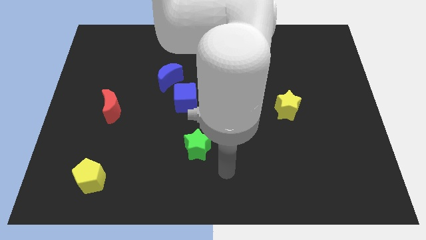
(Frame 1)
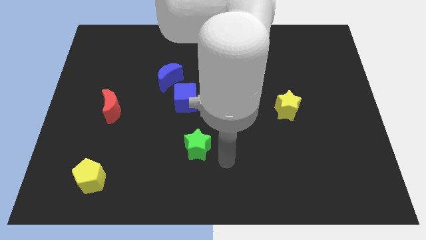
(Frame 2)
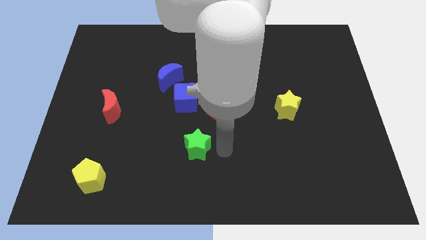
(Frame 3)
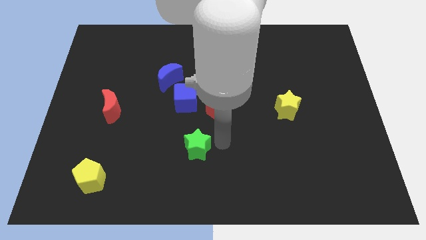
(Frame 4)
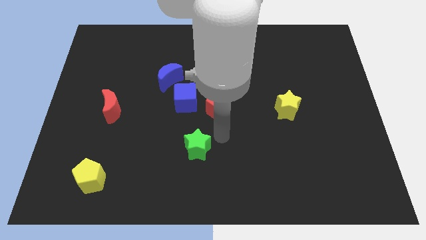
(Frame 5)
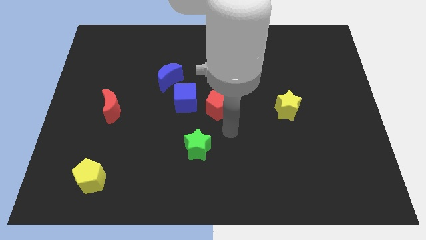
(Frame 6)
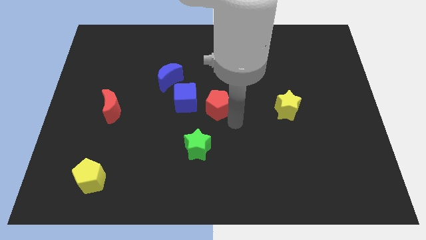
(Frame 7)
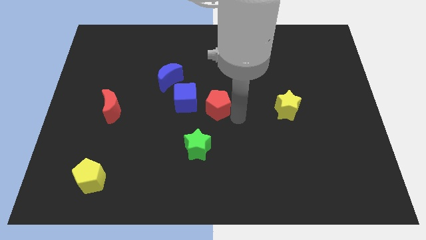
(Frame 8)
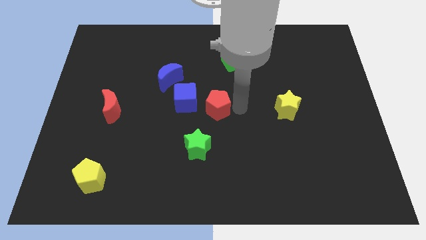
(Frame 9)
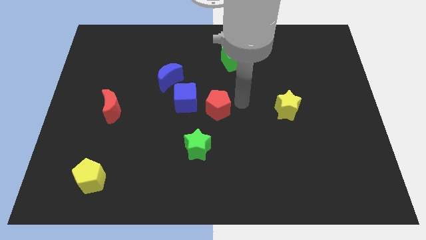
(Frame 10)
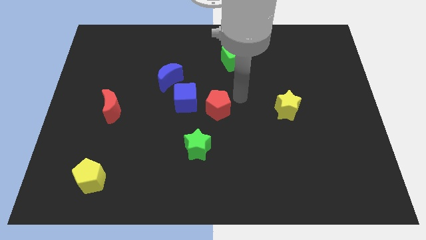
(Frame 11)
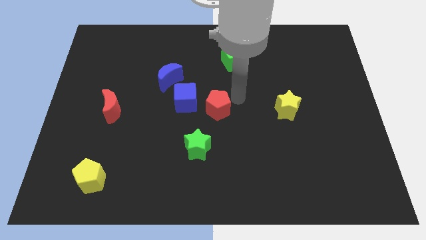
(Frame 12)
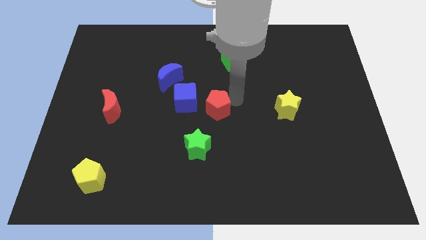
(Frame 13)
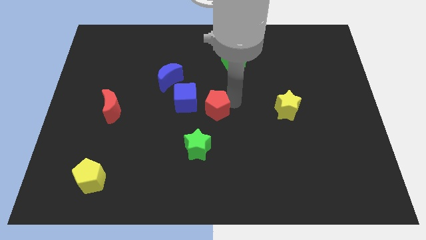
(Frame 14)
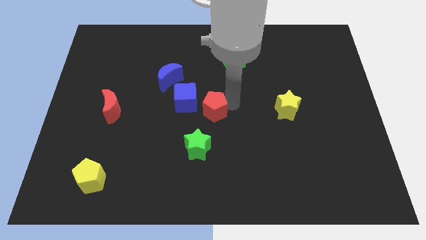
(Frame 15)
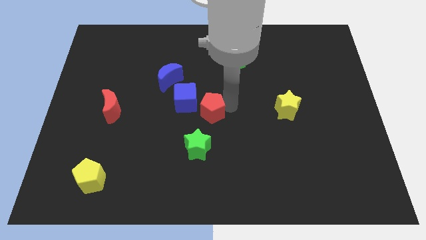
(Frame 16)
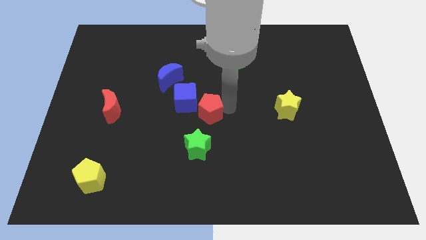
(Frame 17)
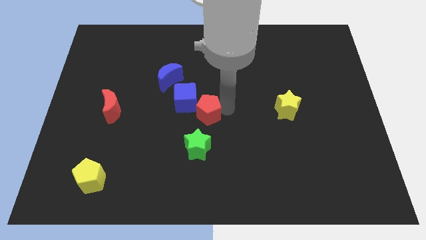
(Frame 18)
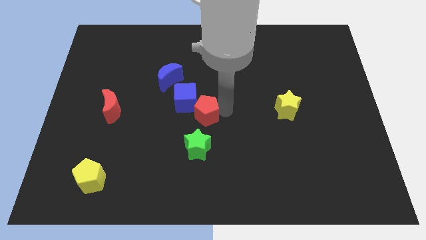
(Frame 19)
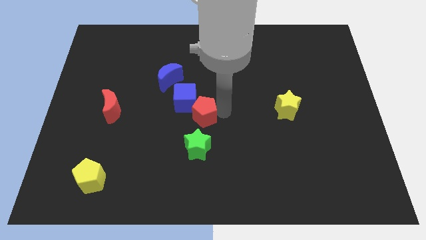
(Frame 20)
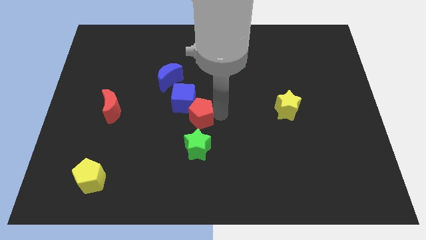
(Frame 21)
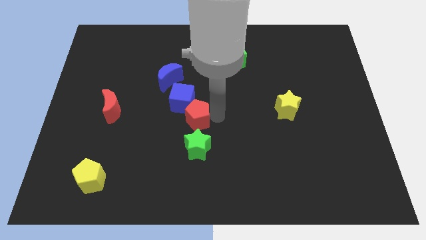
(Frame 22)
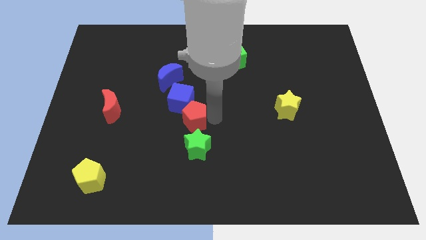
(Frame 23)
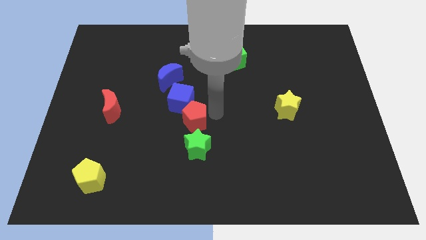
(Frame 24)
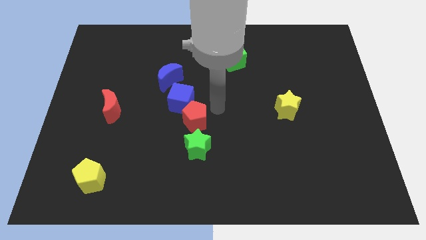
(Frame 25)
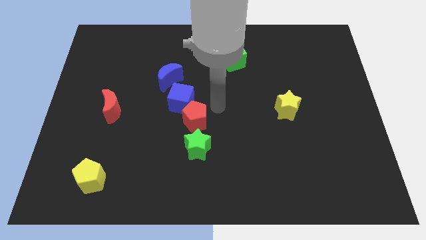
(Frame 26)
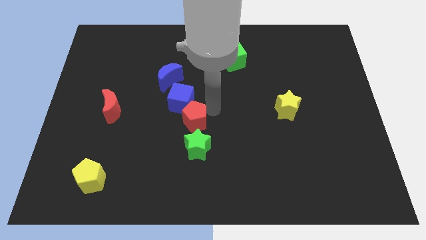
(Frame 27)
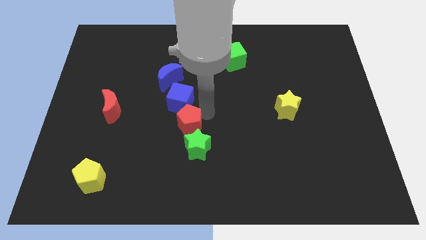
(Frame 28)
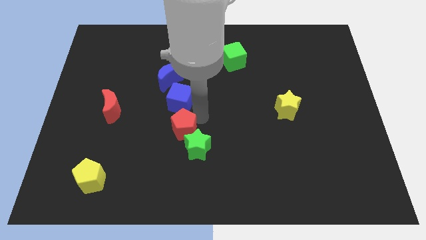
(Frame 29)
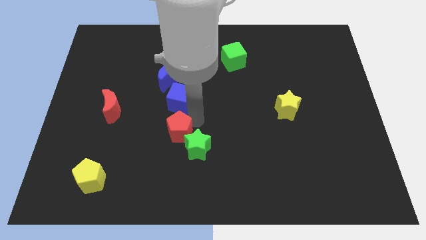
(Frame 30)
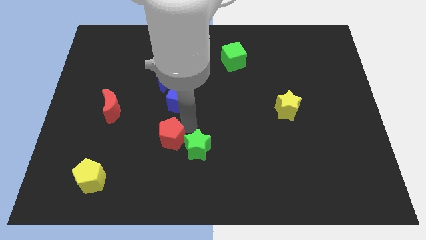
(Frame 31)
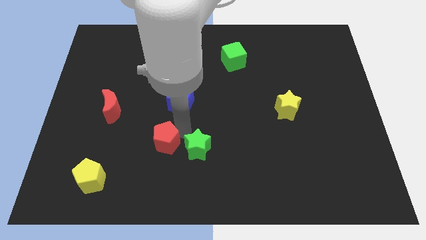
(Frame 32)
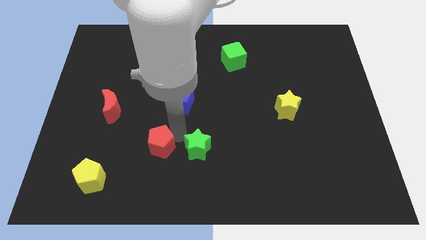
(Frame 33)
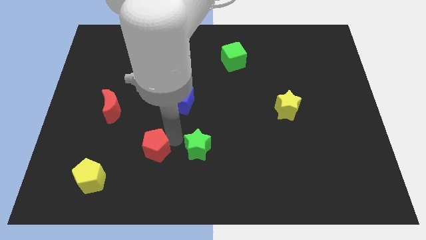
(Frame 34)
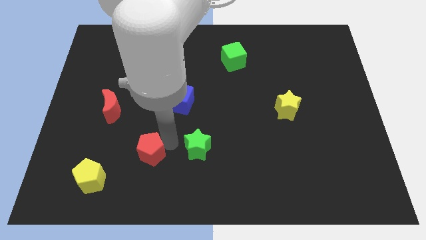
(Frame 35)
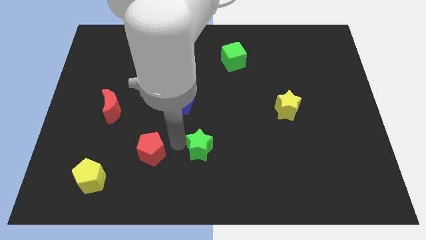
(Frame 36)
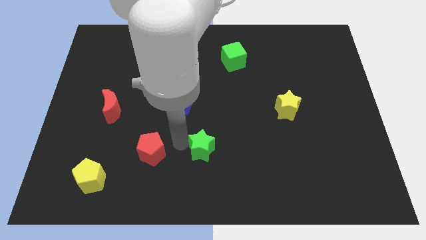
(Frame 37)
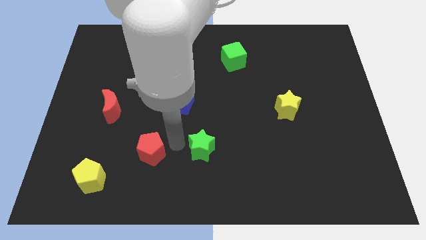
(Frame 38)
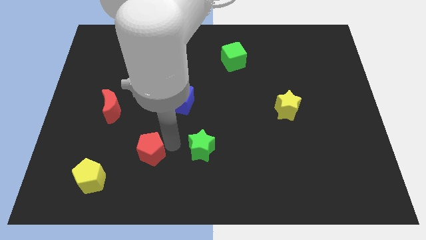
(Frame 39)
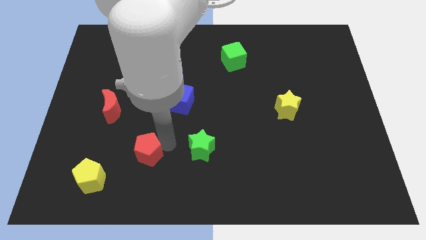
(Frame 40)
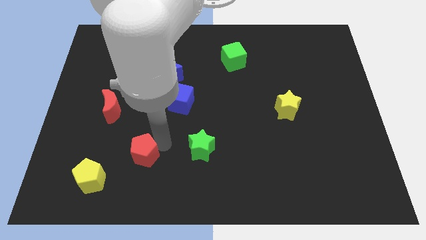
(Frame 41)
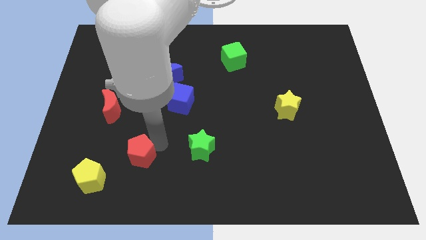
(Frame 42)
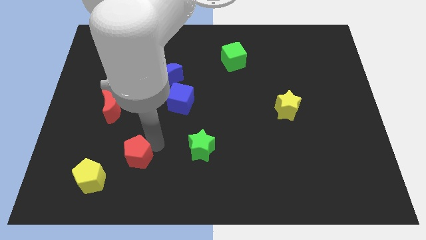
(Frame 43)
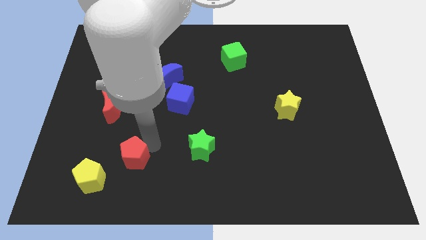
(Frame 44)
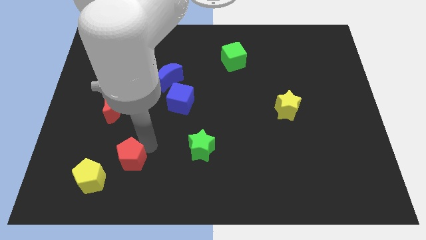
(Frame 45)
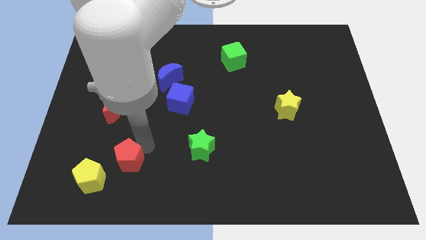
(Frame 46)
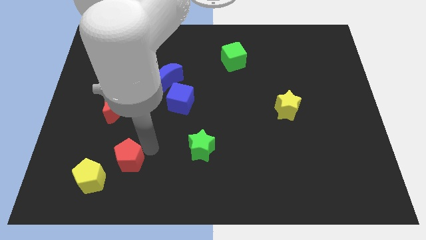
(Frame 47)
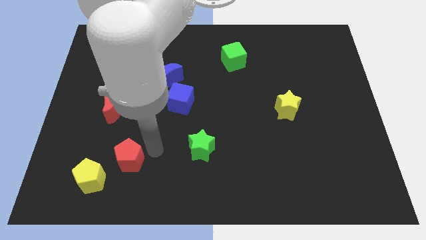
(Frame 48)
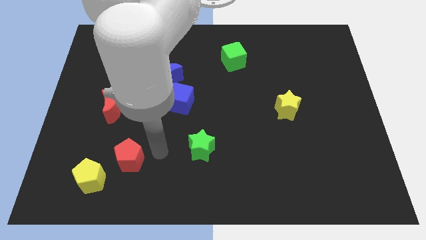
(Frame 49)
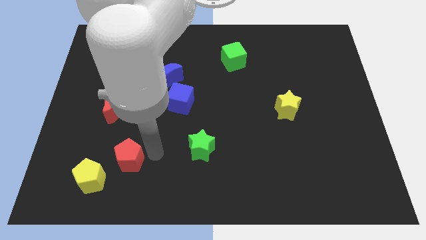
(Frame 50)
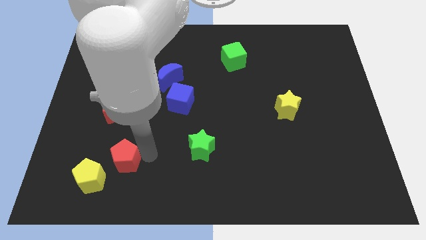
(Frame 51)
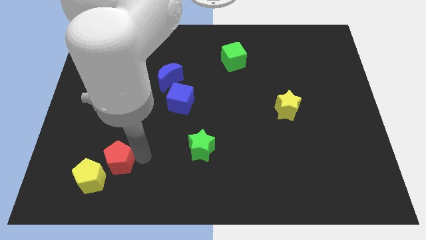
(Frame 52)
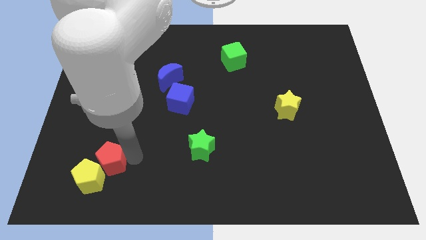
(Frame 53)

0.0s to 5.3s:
push the red pentagon next to the yellow pentagon

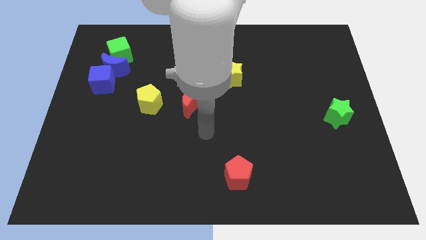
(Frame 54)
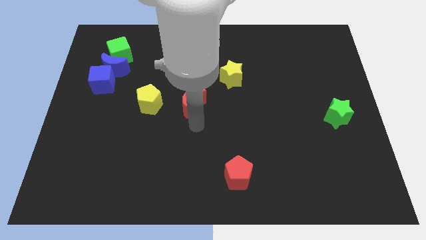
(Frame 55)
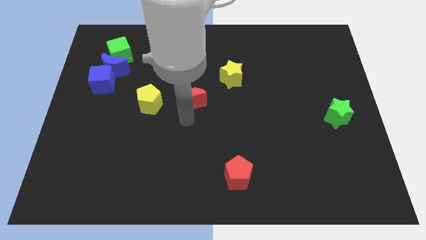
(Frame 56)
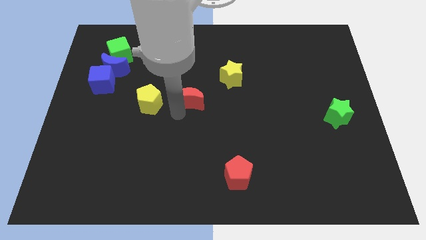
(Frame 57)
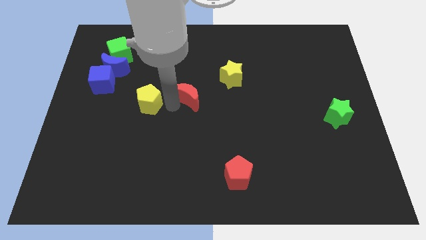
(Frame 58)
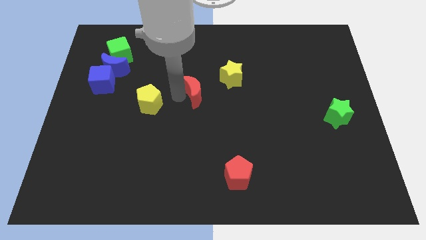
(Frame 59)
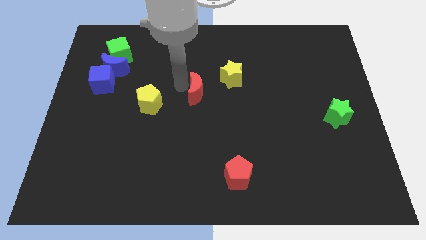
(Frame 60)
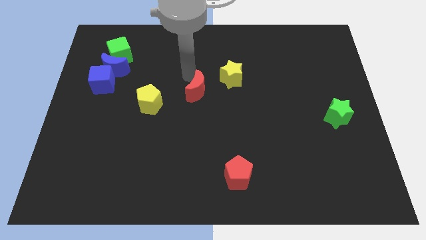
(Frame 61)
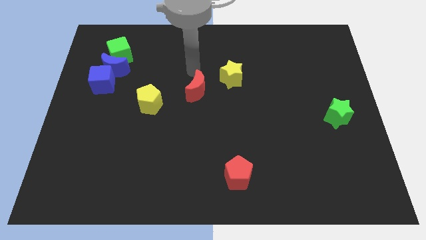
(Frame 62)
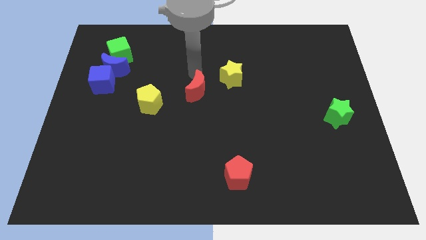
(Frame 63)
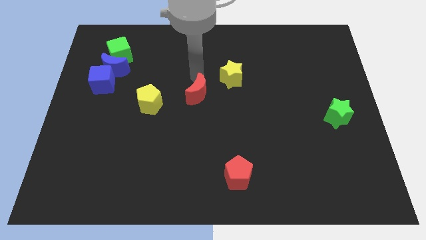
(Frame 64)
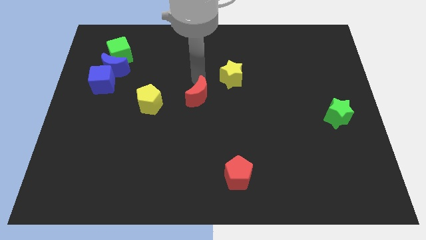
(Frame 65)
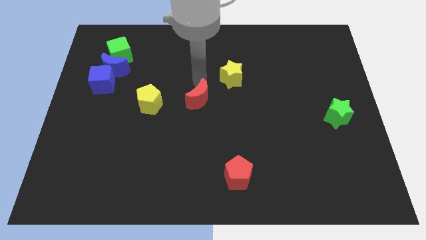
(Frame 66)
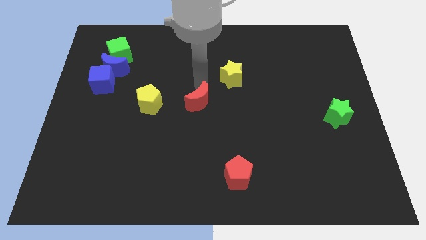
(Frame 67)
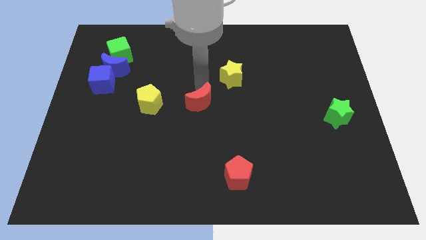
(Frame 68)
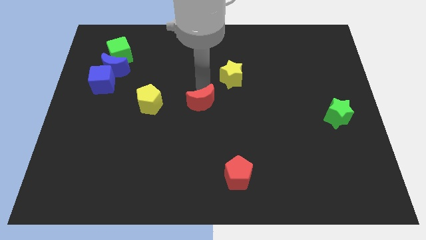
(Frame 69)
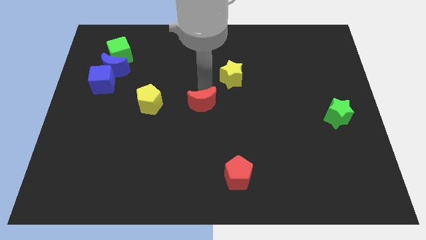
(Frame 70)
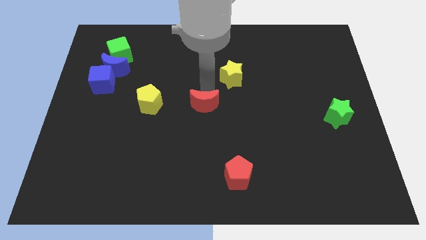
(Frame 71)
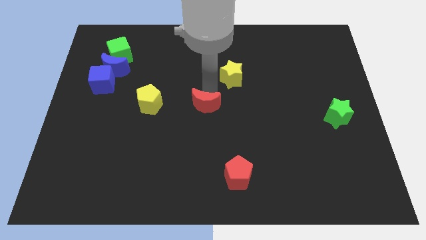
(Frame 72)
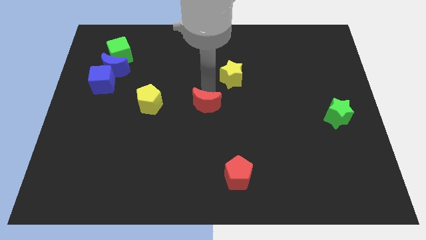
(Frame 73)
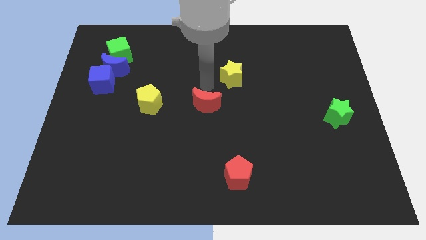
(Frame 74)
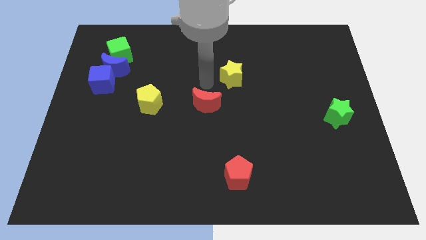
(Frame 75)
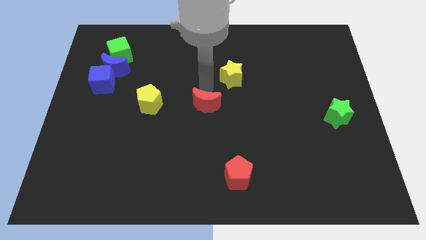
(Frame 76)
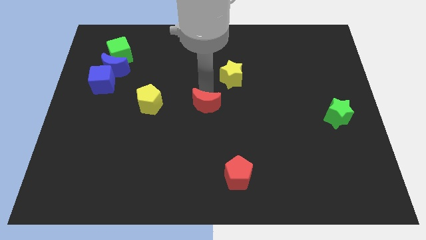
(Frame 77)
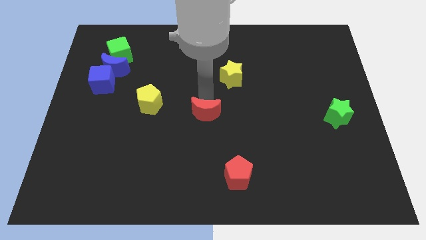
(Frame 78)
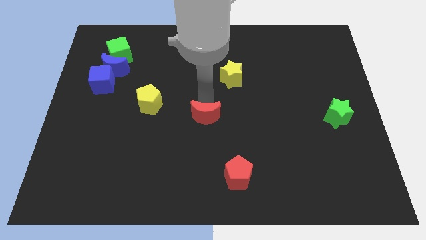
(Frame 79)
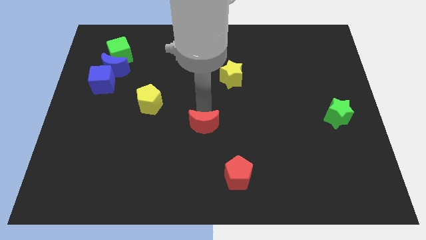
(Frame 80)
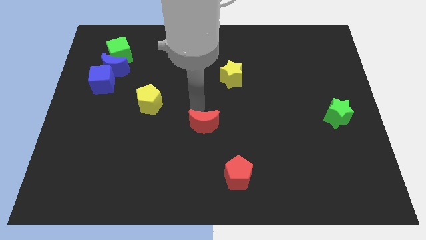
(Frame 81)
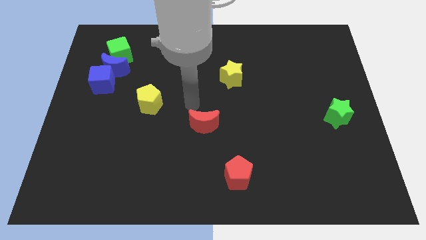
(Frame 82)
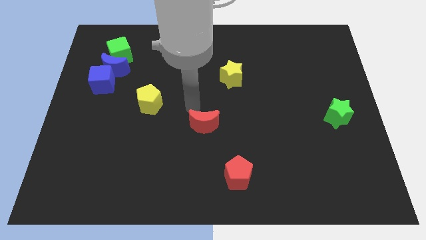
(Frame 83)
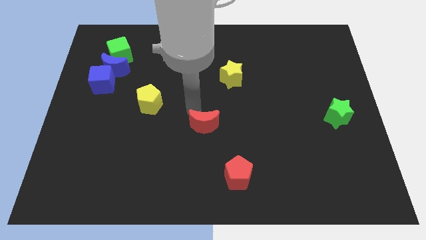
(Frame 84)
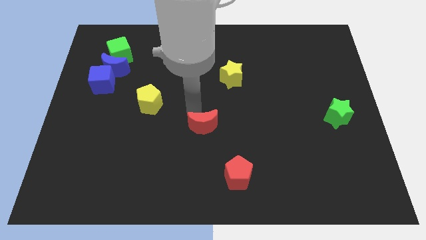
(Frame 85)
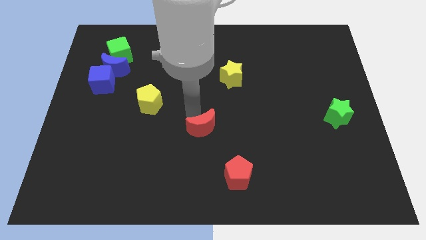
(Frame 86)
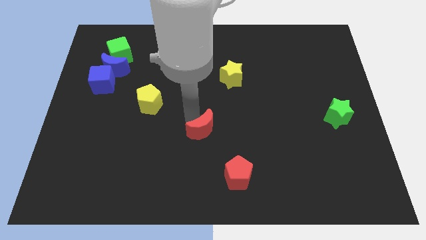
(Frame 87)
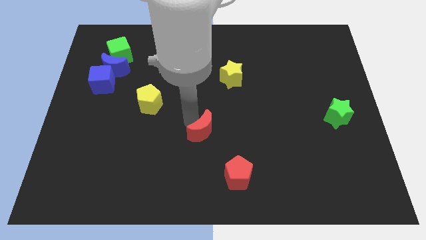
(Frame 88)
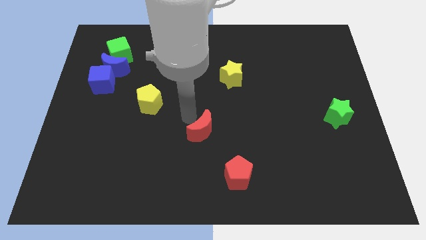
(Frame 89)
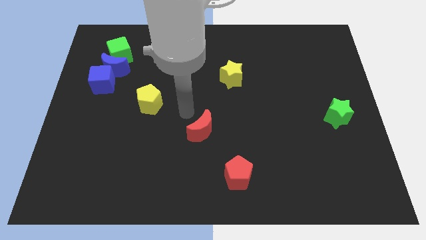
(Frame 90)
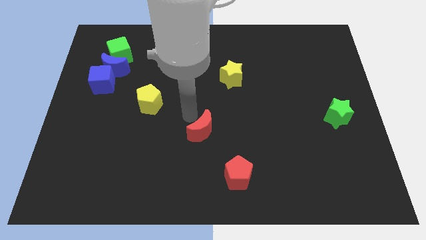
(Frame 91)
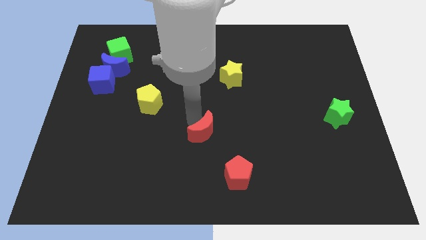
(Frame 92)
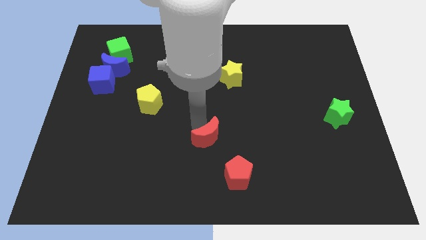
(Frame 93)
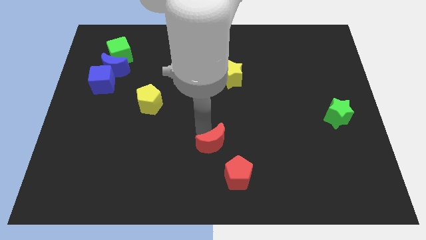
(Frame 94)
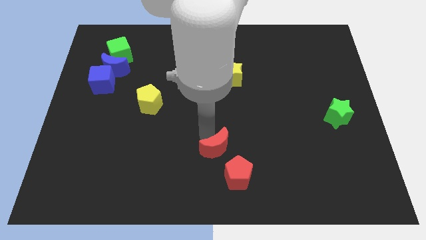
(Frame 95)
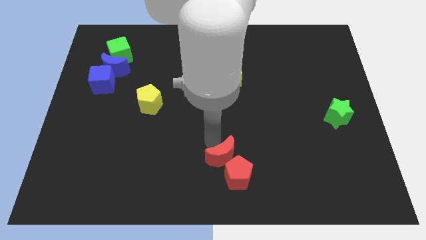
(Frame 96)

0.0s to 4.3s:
push the red moon close to the red pentagon
